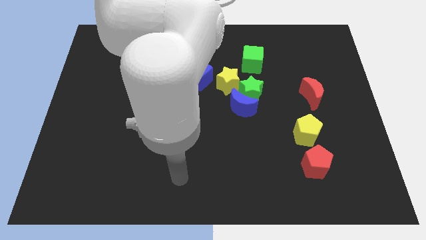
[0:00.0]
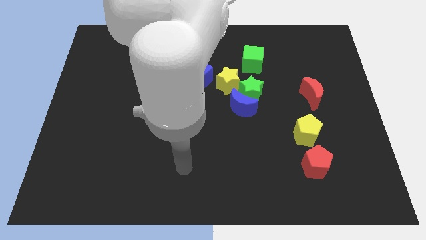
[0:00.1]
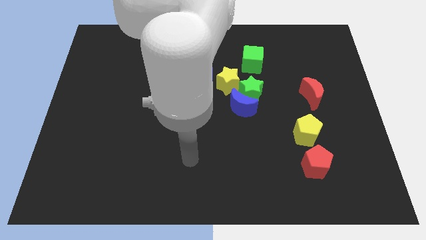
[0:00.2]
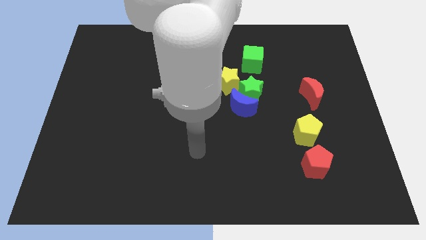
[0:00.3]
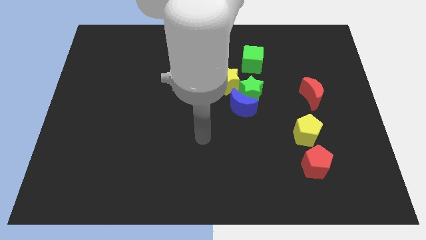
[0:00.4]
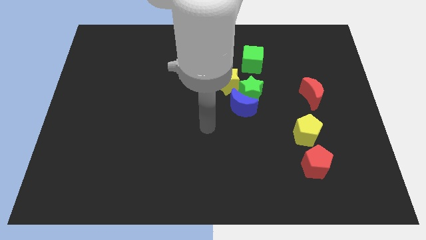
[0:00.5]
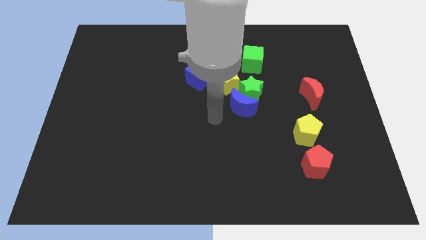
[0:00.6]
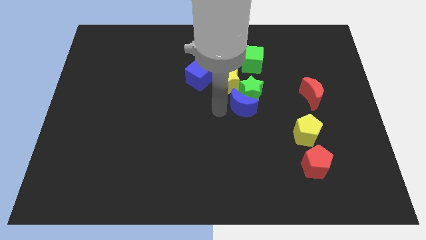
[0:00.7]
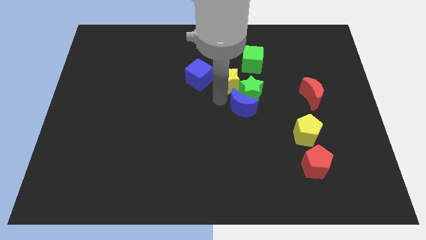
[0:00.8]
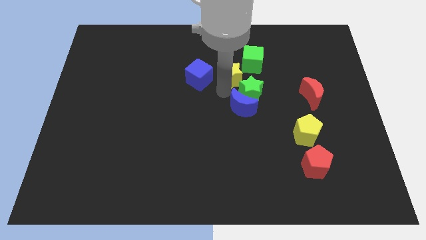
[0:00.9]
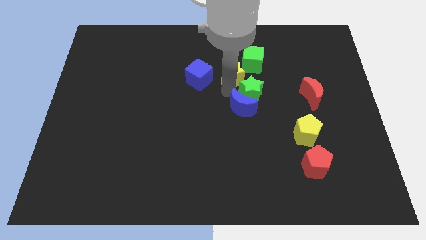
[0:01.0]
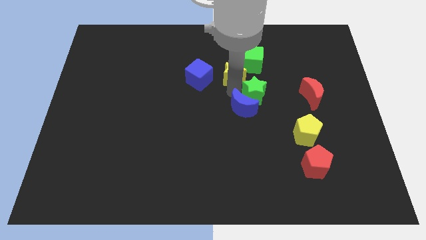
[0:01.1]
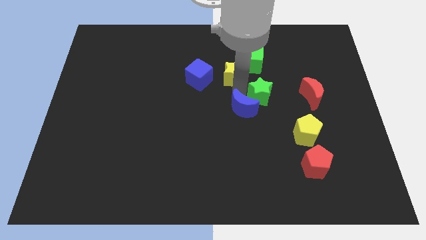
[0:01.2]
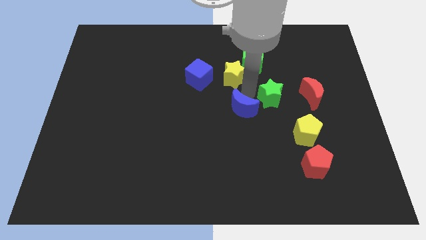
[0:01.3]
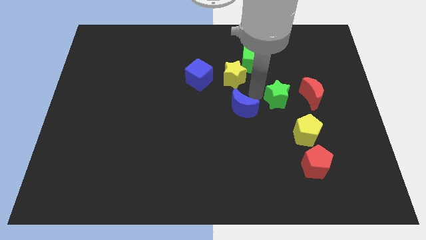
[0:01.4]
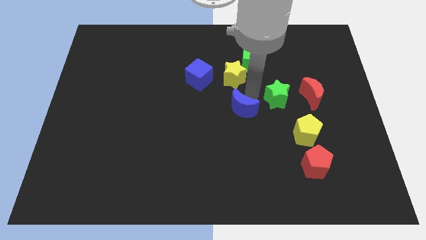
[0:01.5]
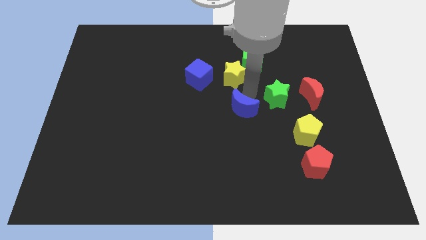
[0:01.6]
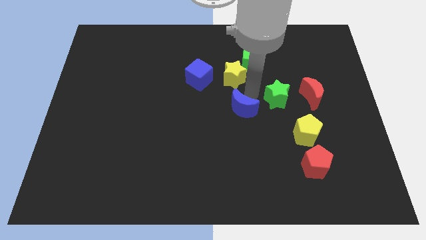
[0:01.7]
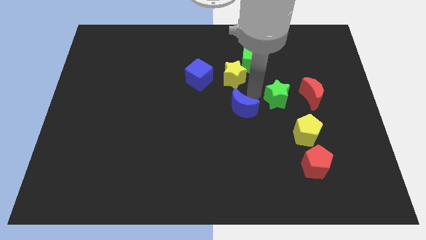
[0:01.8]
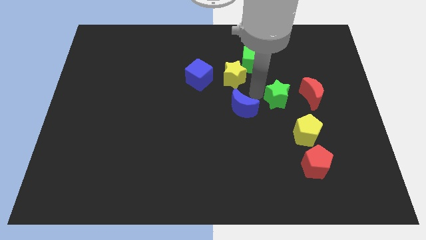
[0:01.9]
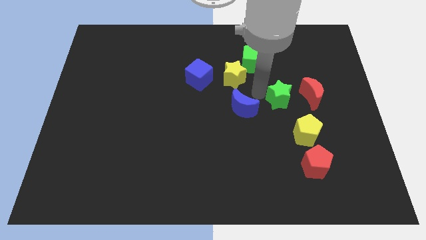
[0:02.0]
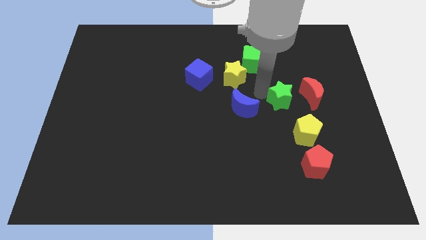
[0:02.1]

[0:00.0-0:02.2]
pull the green star apart from the blue moon and yellow star

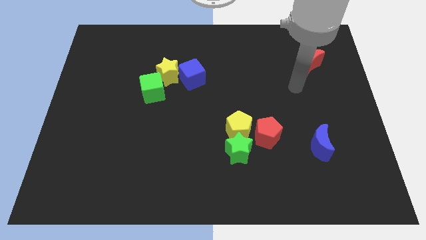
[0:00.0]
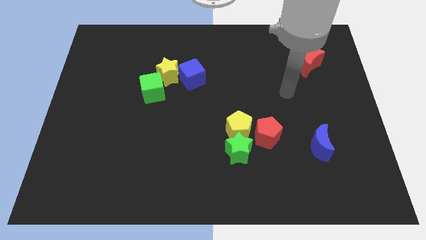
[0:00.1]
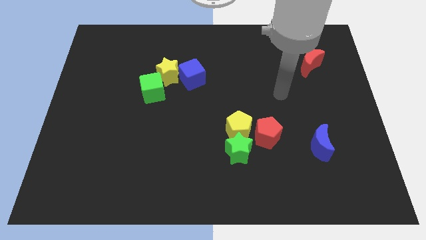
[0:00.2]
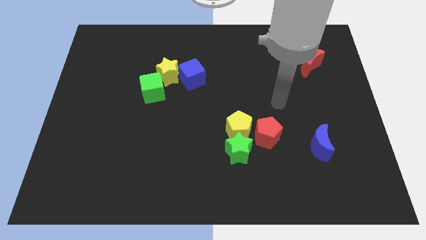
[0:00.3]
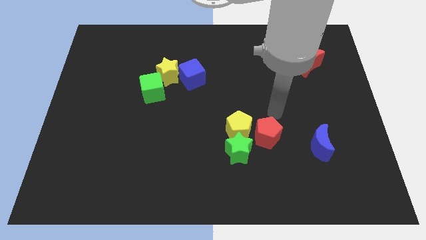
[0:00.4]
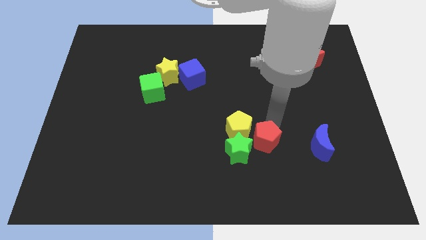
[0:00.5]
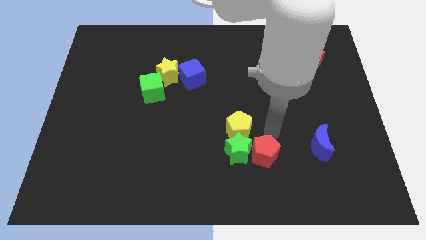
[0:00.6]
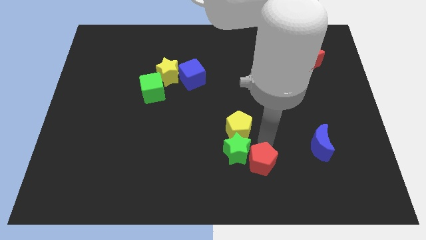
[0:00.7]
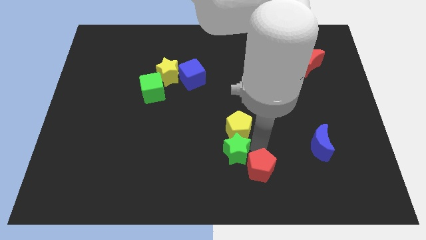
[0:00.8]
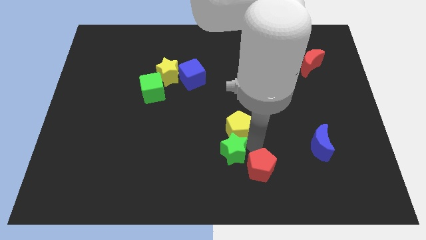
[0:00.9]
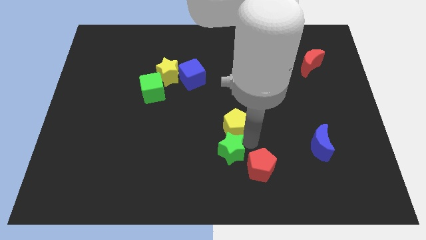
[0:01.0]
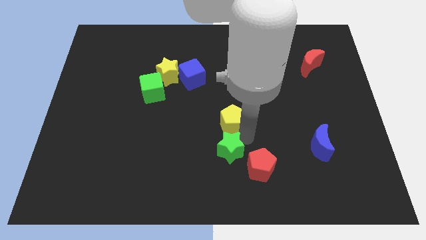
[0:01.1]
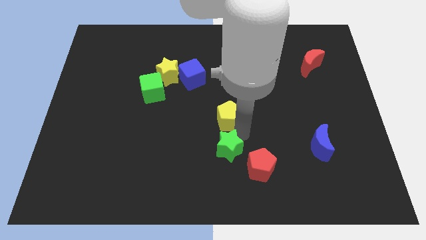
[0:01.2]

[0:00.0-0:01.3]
pull the yellow pentagon apart from the green star and red pentagon

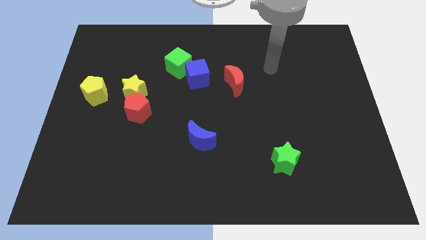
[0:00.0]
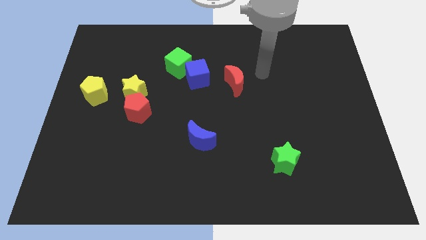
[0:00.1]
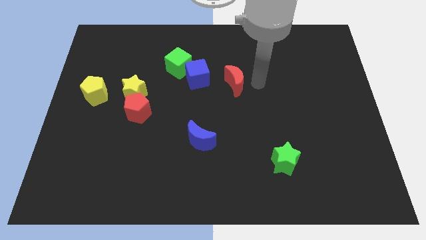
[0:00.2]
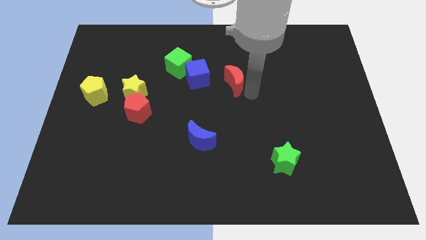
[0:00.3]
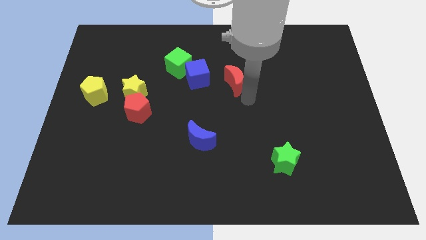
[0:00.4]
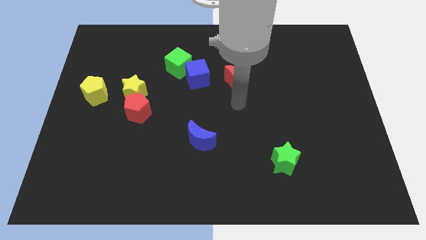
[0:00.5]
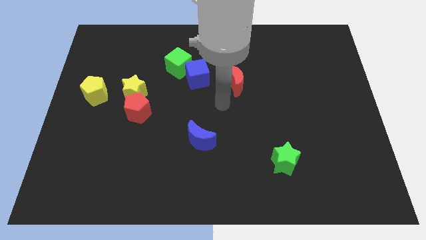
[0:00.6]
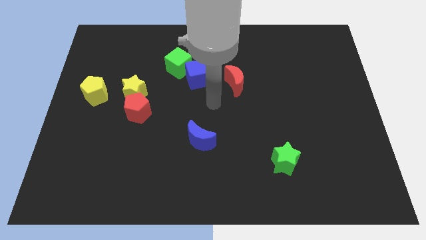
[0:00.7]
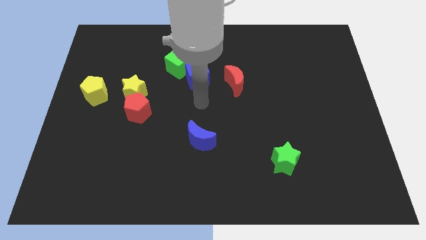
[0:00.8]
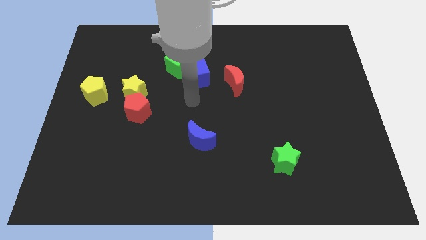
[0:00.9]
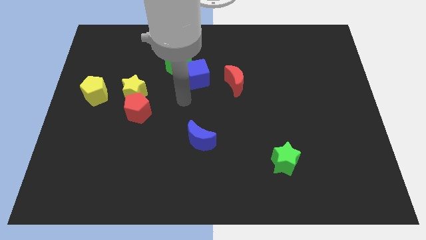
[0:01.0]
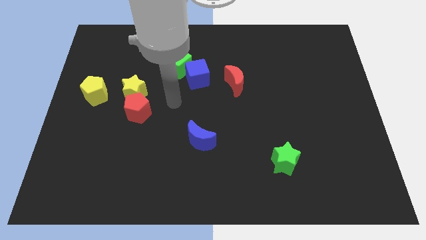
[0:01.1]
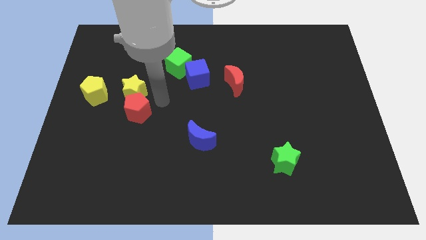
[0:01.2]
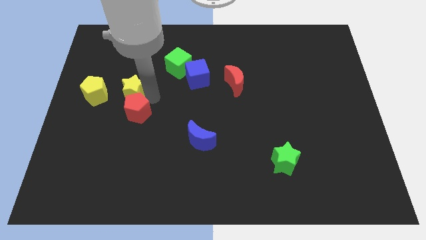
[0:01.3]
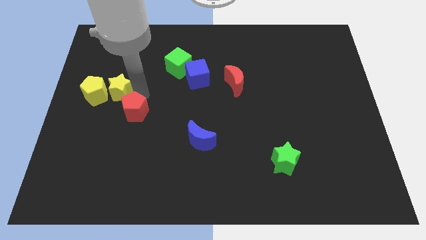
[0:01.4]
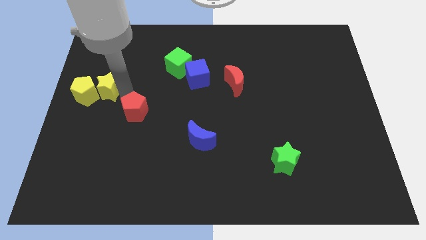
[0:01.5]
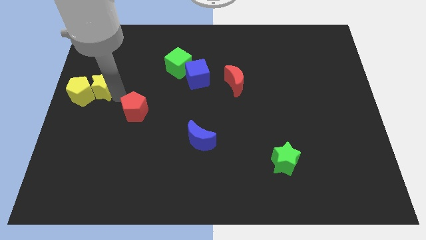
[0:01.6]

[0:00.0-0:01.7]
move the red pentagon away from the yellow star

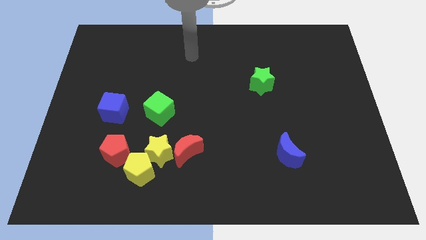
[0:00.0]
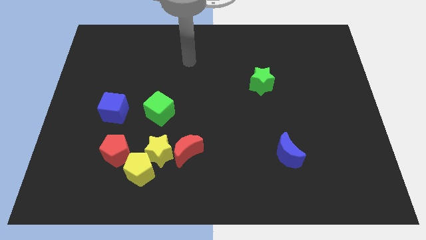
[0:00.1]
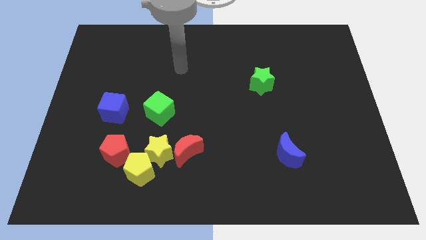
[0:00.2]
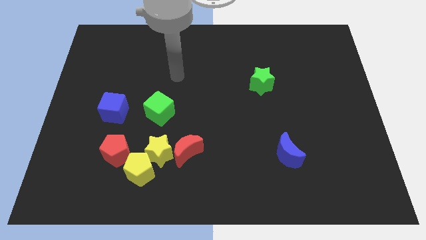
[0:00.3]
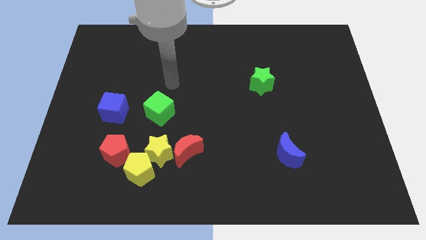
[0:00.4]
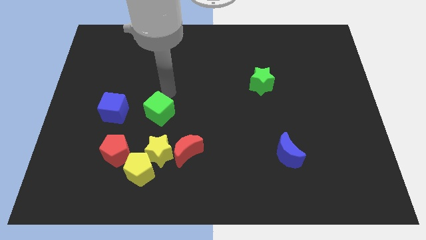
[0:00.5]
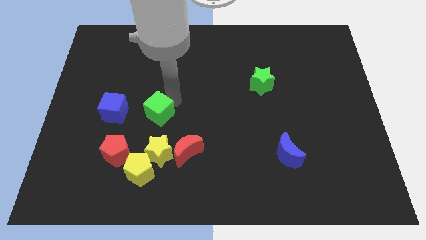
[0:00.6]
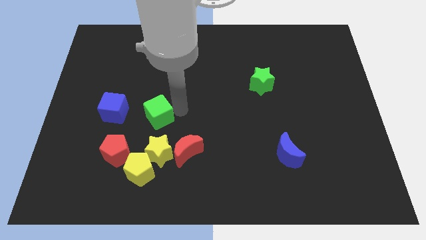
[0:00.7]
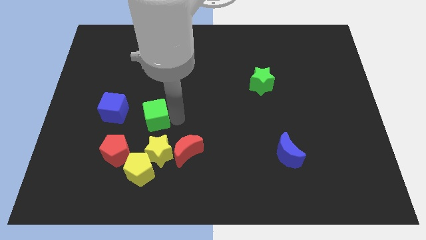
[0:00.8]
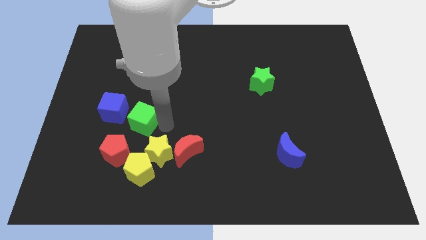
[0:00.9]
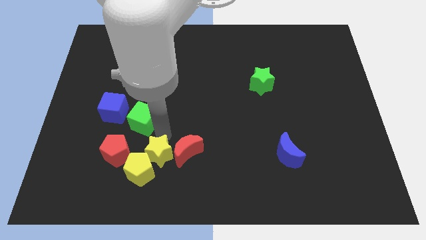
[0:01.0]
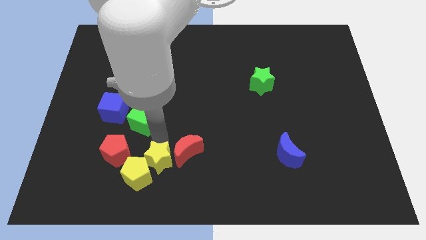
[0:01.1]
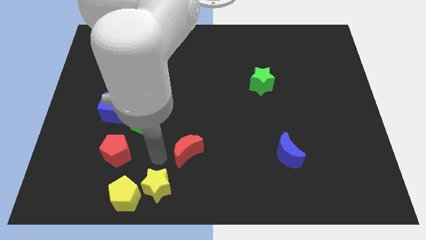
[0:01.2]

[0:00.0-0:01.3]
pull the red moon apart from the yellow star

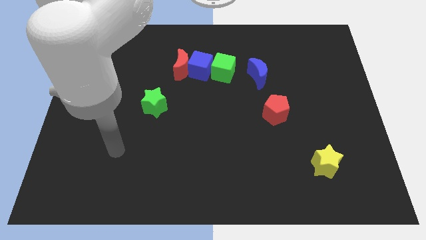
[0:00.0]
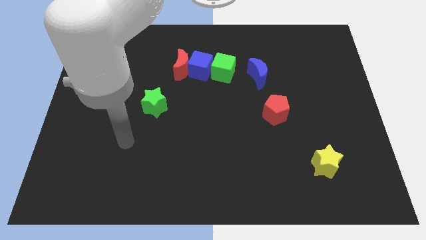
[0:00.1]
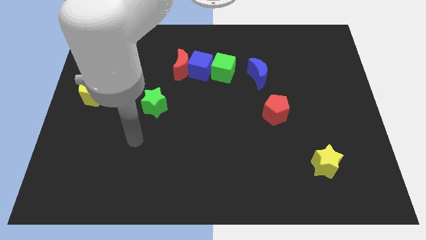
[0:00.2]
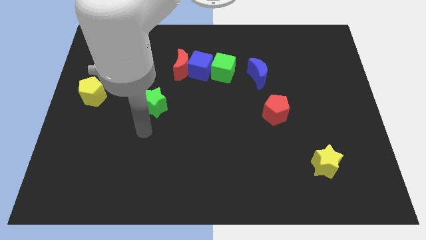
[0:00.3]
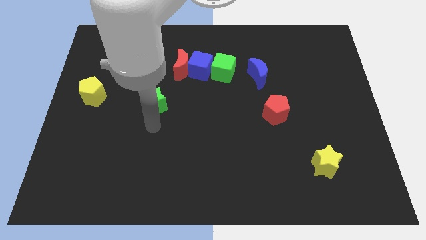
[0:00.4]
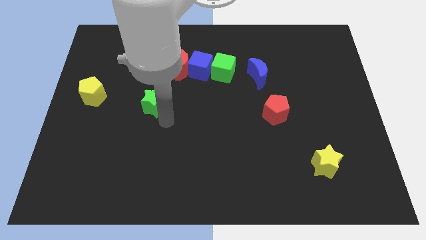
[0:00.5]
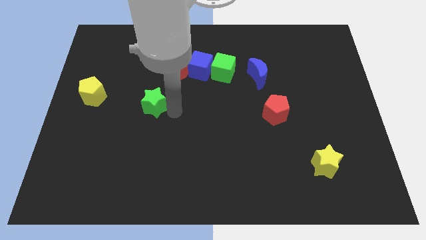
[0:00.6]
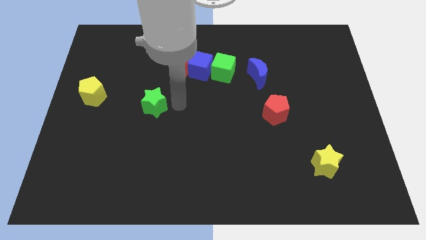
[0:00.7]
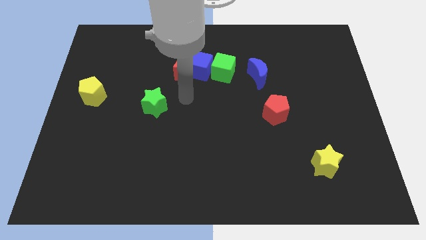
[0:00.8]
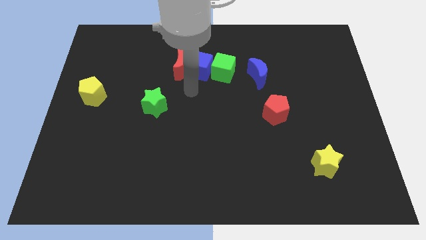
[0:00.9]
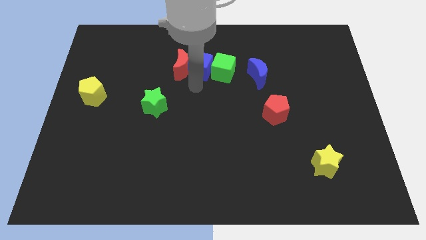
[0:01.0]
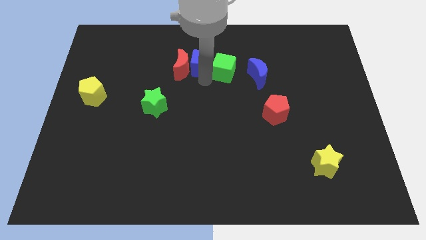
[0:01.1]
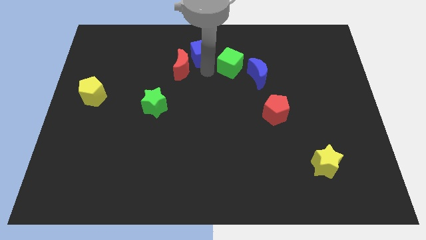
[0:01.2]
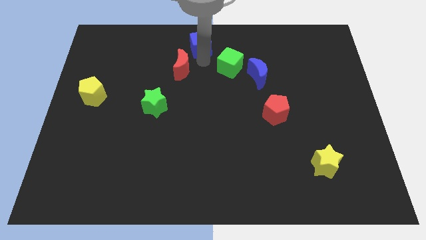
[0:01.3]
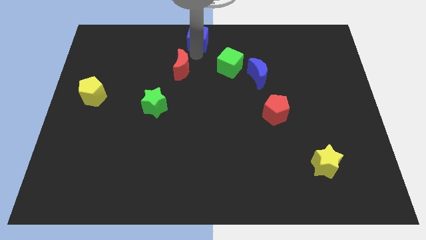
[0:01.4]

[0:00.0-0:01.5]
separate the red moon from the blue cube

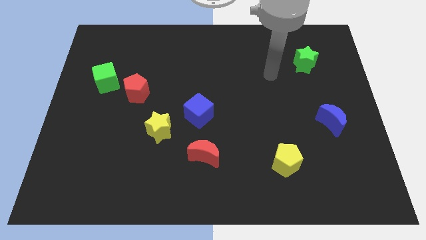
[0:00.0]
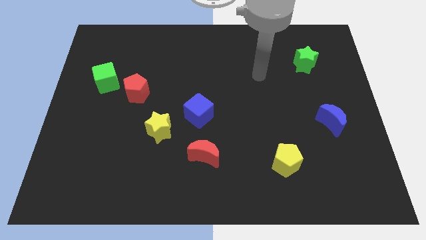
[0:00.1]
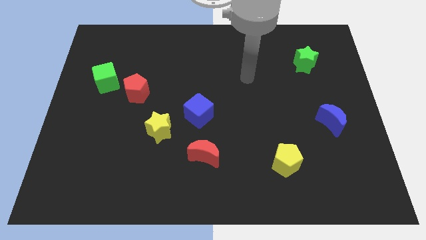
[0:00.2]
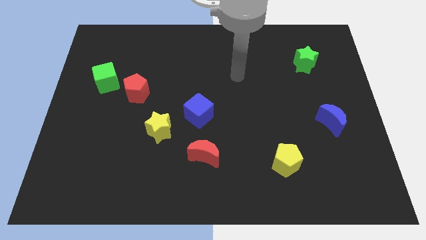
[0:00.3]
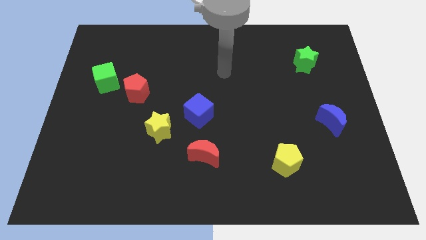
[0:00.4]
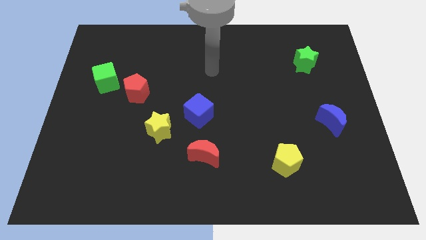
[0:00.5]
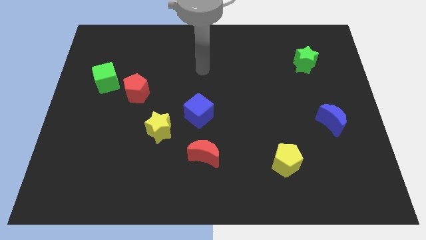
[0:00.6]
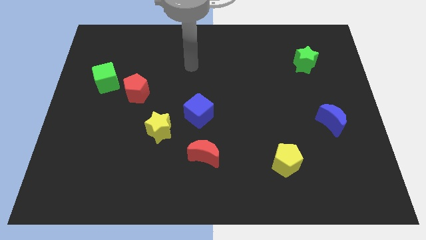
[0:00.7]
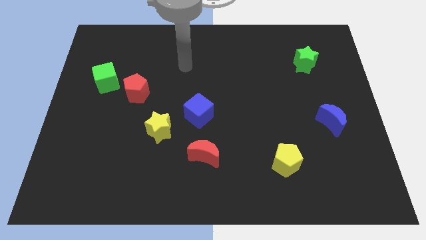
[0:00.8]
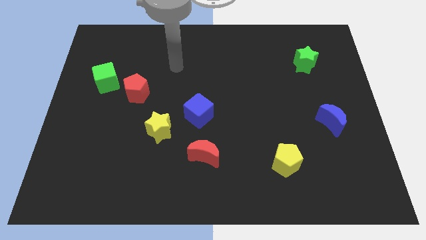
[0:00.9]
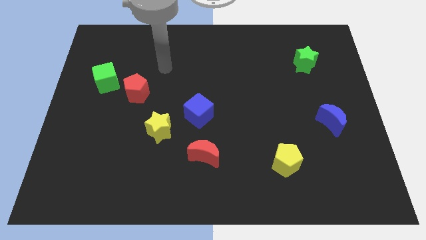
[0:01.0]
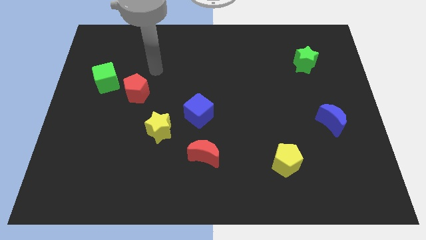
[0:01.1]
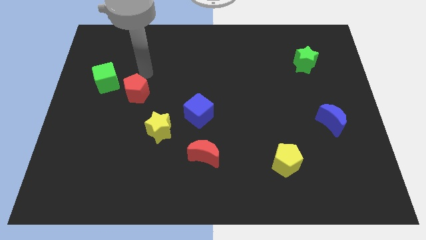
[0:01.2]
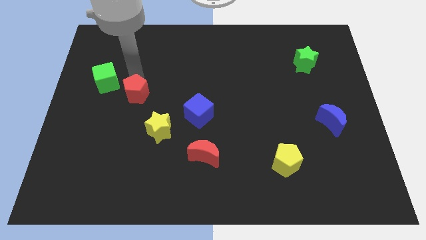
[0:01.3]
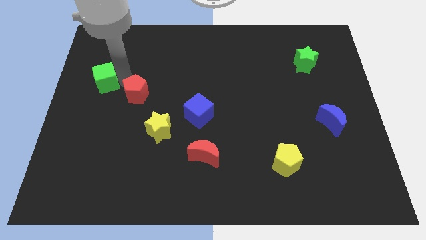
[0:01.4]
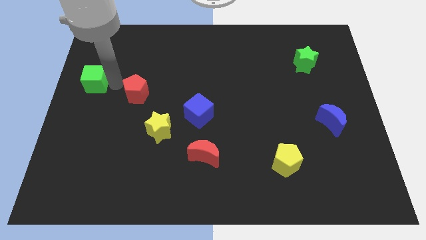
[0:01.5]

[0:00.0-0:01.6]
pull the red pentagon apart from the green cube
